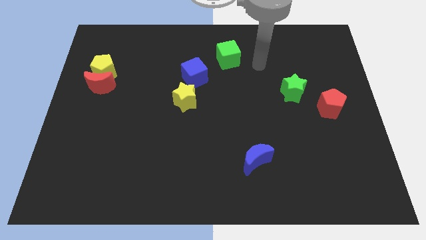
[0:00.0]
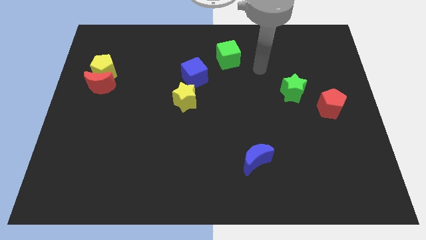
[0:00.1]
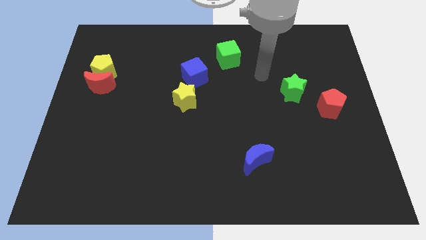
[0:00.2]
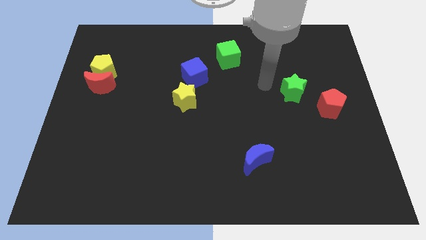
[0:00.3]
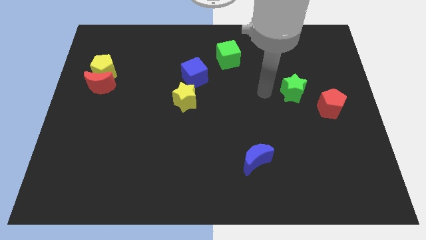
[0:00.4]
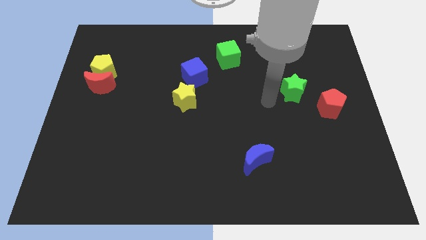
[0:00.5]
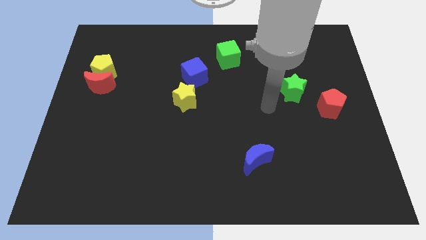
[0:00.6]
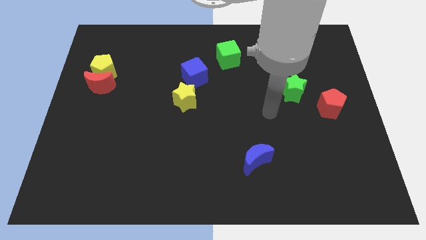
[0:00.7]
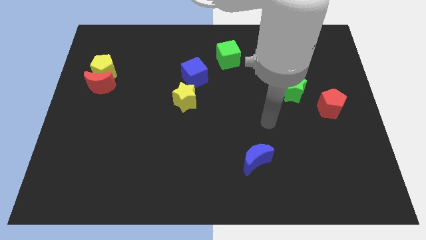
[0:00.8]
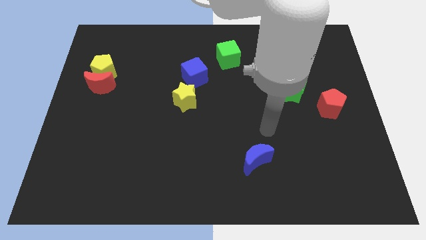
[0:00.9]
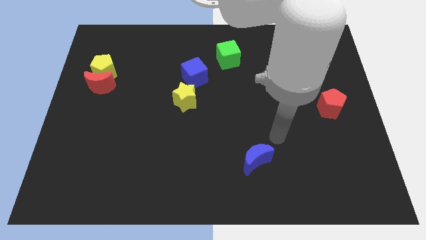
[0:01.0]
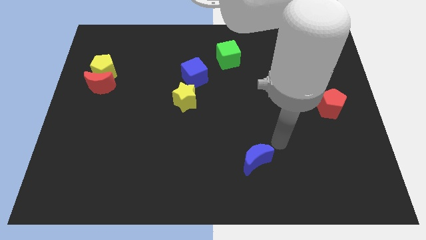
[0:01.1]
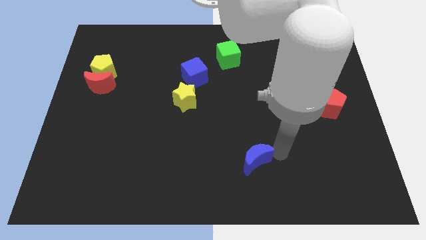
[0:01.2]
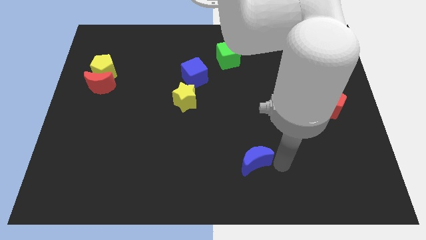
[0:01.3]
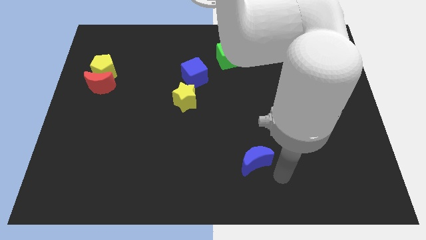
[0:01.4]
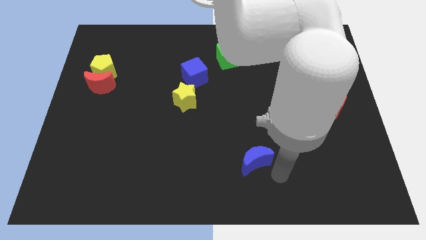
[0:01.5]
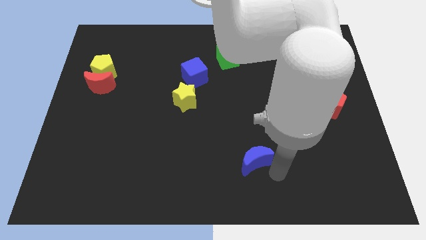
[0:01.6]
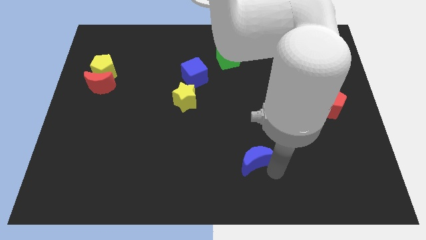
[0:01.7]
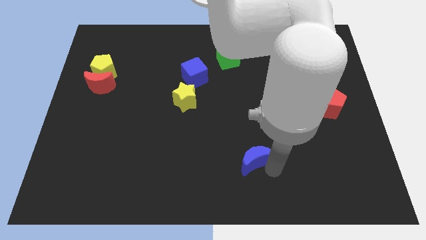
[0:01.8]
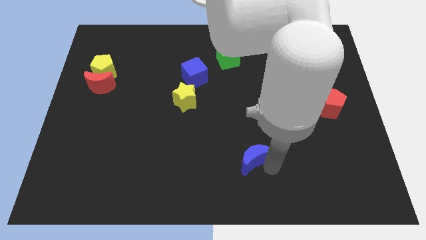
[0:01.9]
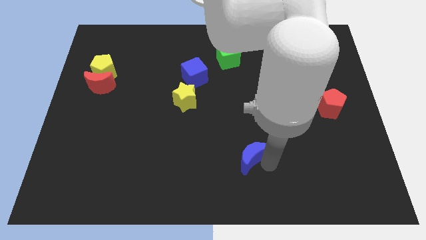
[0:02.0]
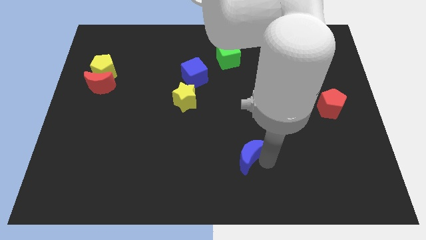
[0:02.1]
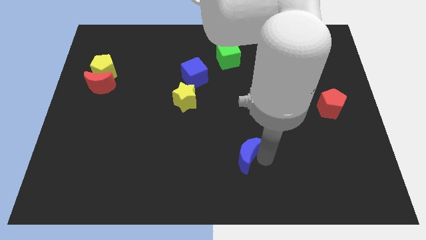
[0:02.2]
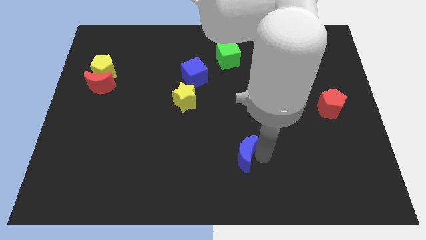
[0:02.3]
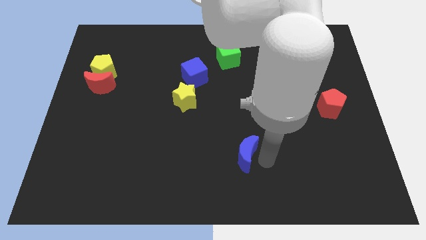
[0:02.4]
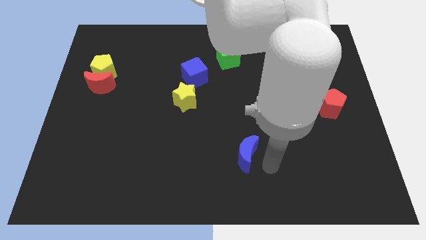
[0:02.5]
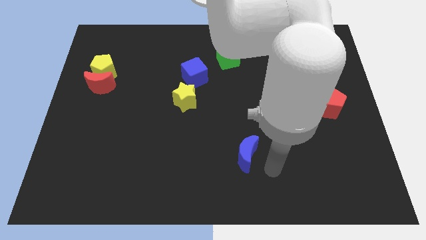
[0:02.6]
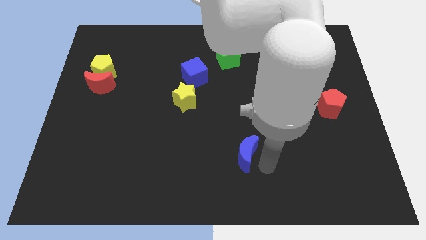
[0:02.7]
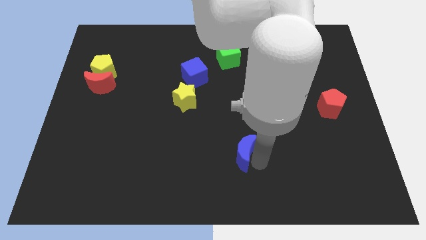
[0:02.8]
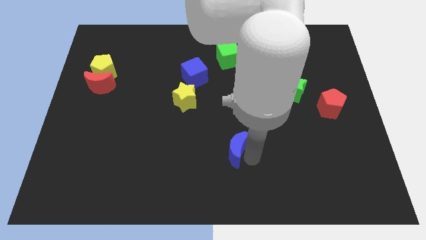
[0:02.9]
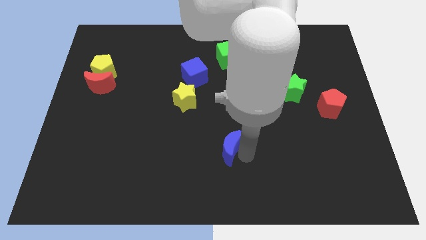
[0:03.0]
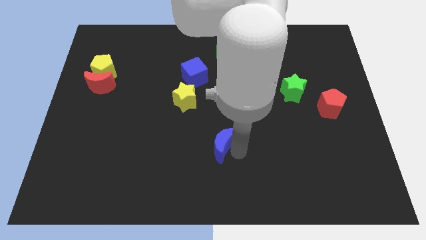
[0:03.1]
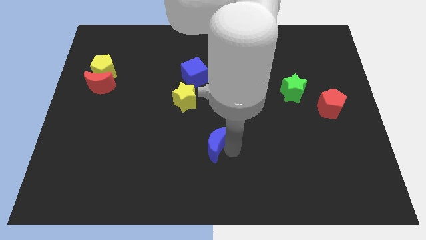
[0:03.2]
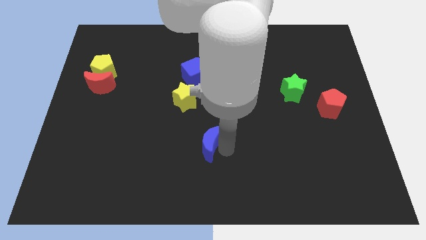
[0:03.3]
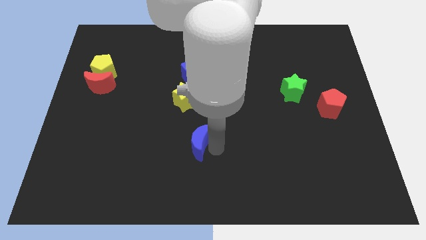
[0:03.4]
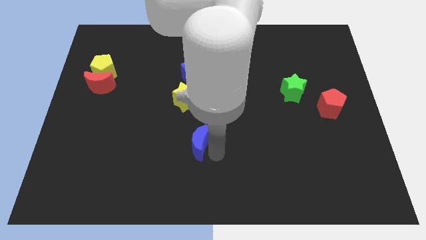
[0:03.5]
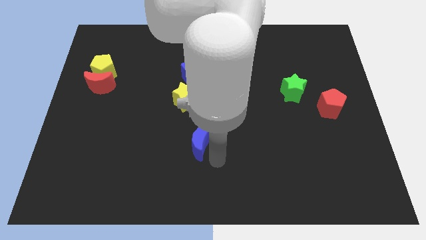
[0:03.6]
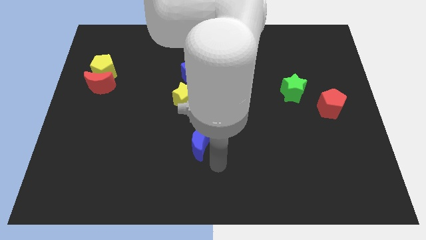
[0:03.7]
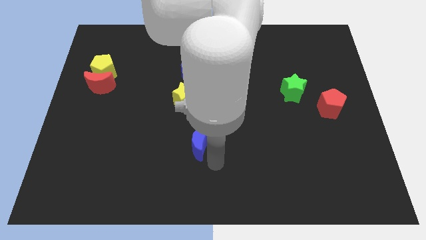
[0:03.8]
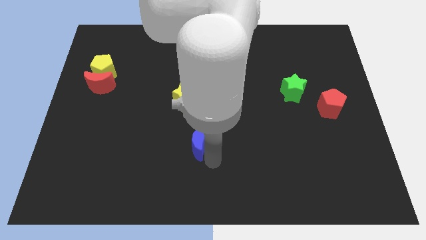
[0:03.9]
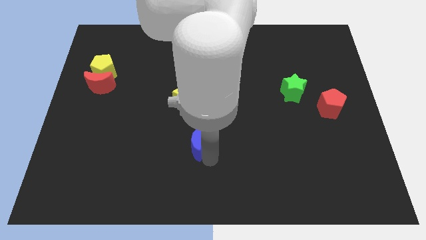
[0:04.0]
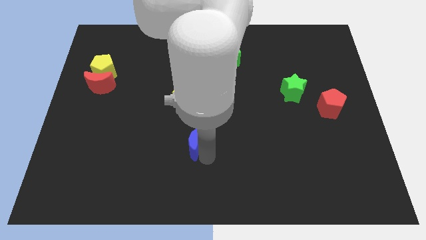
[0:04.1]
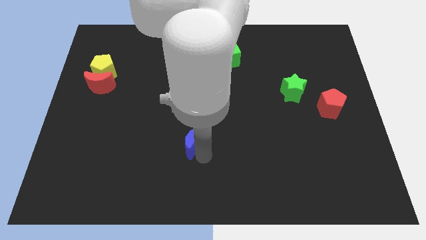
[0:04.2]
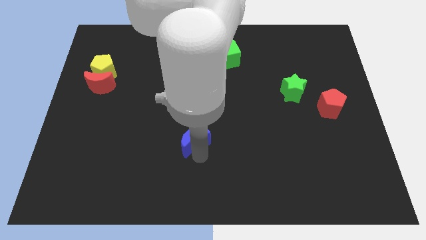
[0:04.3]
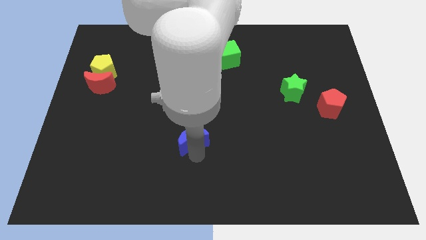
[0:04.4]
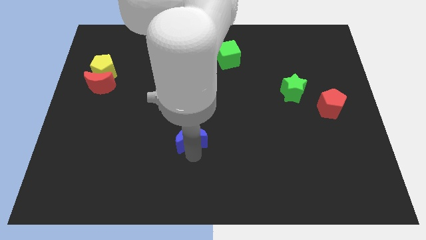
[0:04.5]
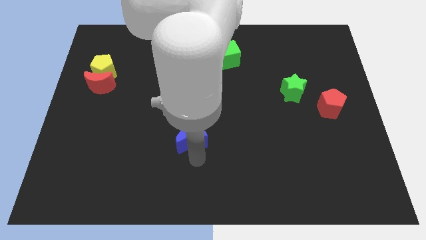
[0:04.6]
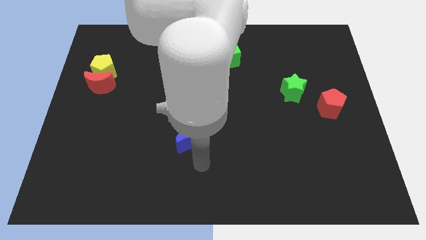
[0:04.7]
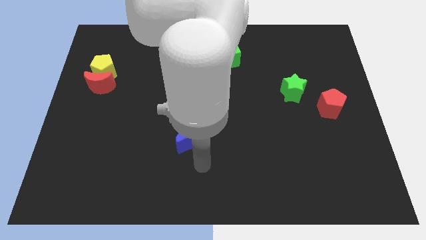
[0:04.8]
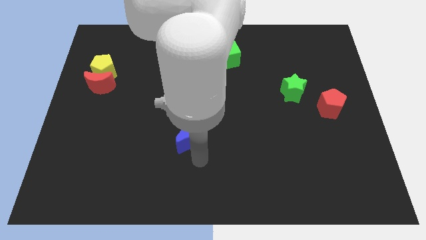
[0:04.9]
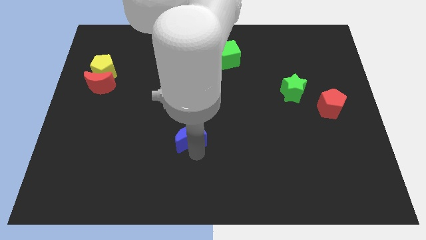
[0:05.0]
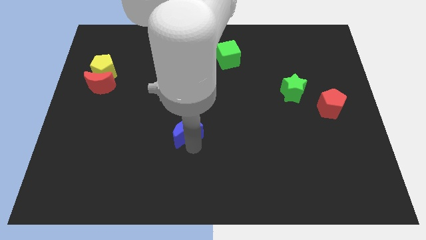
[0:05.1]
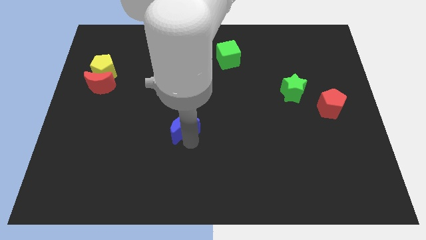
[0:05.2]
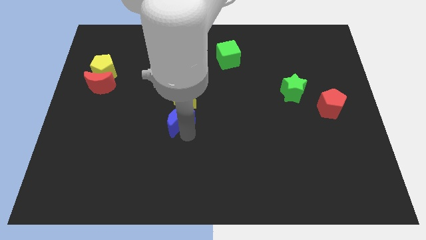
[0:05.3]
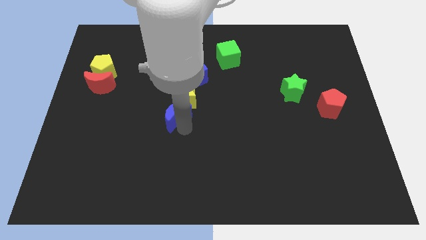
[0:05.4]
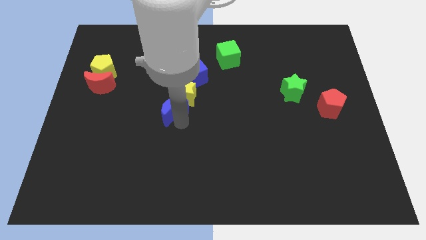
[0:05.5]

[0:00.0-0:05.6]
push the blue moon diagonally up and left

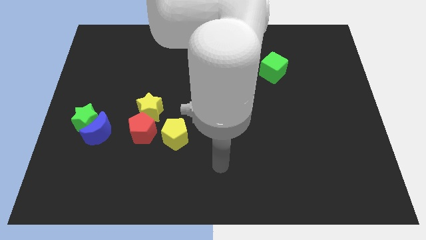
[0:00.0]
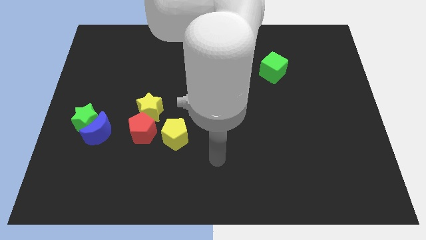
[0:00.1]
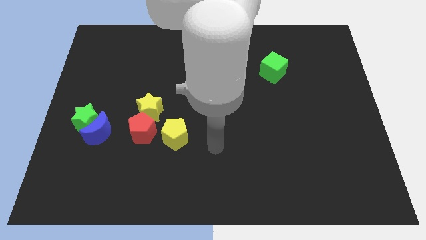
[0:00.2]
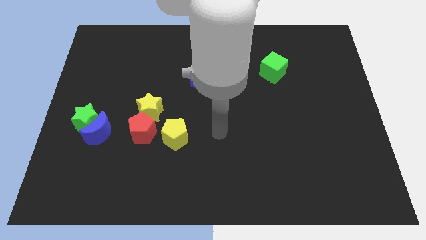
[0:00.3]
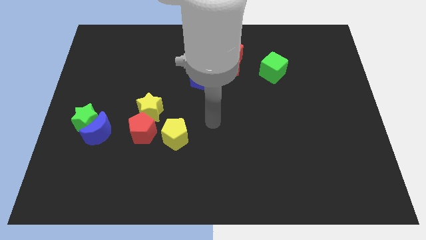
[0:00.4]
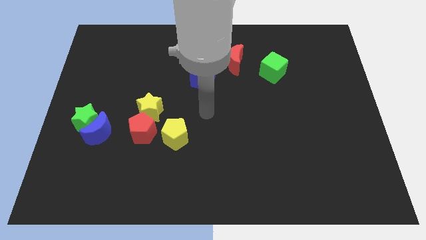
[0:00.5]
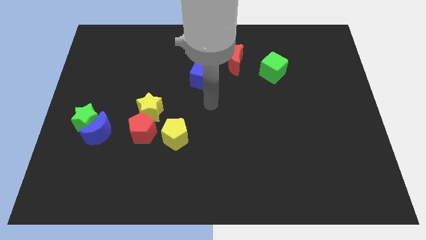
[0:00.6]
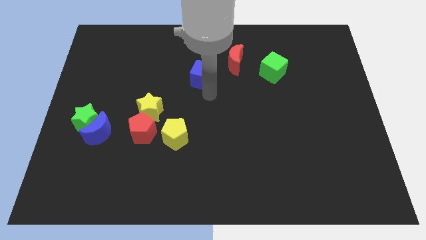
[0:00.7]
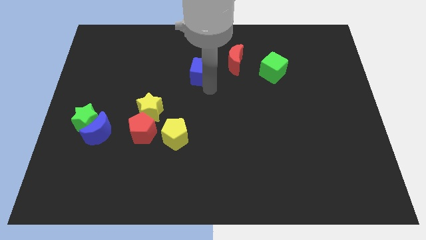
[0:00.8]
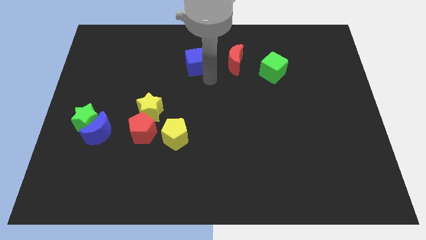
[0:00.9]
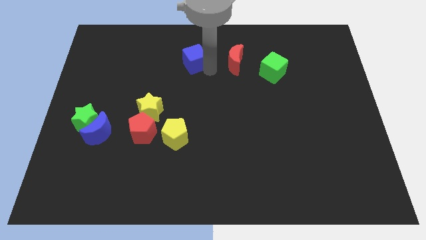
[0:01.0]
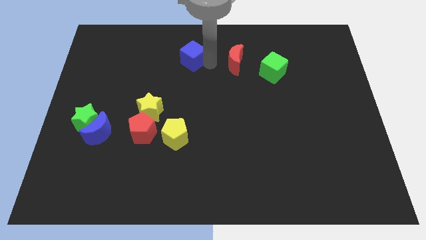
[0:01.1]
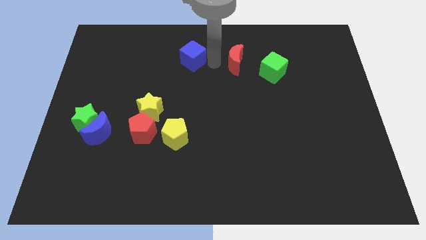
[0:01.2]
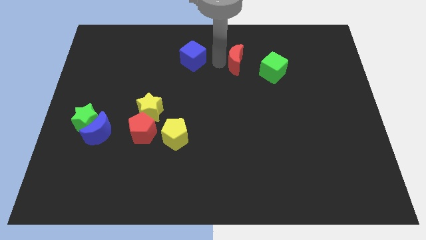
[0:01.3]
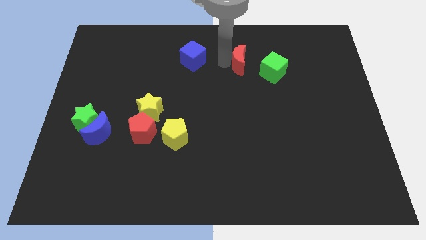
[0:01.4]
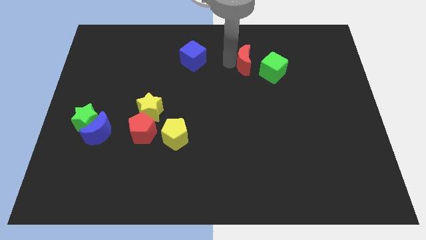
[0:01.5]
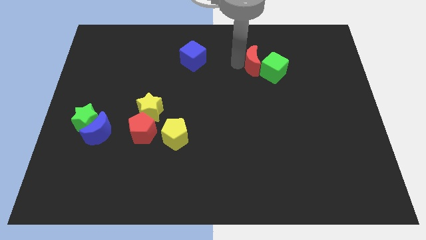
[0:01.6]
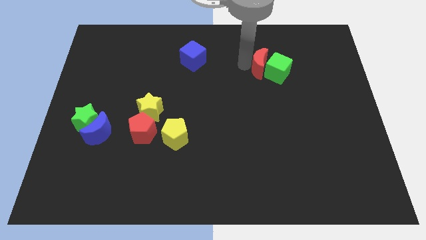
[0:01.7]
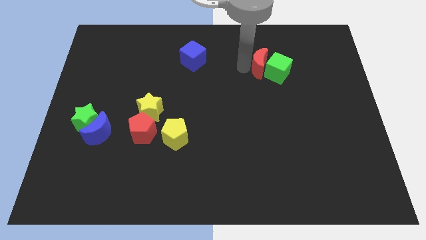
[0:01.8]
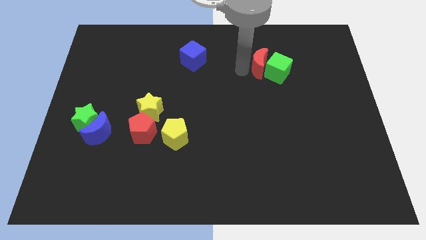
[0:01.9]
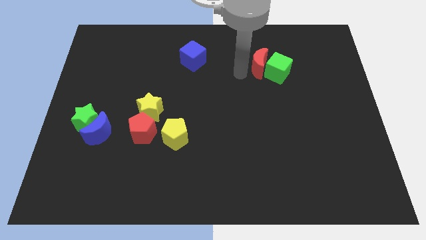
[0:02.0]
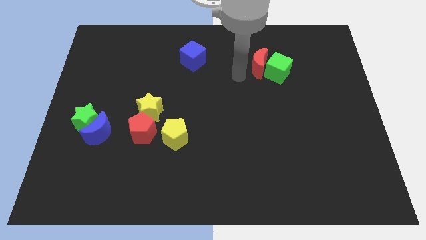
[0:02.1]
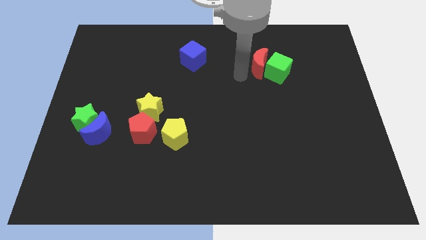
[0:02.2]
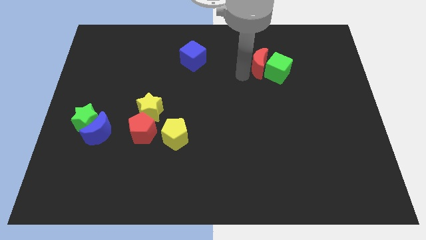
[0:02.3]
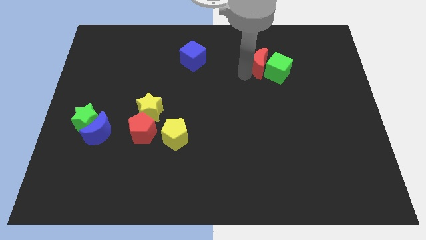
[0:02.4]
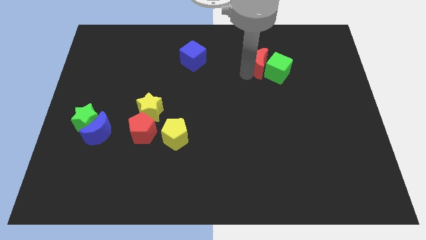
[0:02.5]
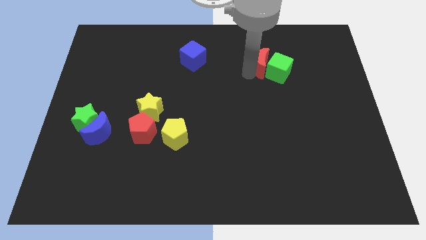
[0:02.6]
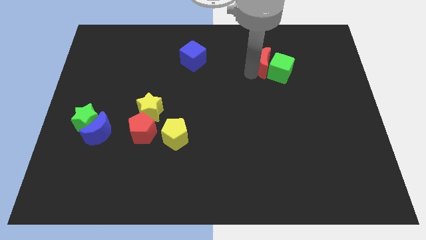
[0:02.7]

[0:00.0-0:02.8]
slightly move the red moon to the right
